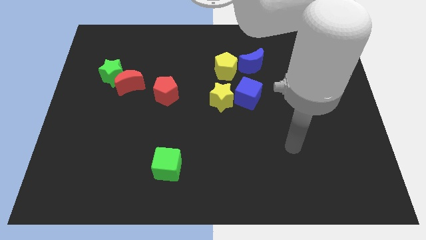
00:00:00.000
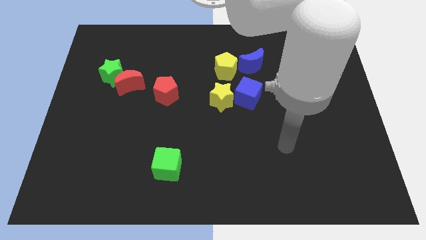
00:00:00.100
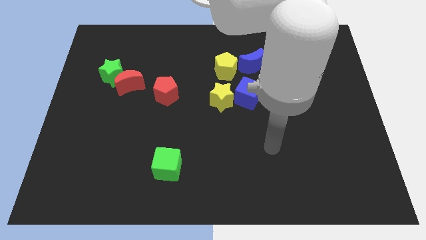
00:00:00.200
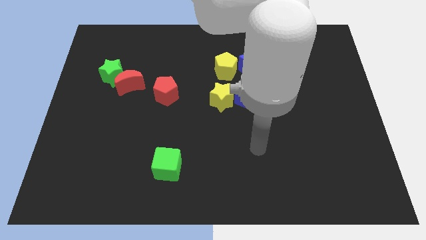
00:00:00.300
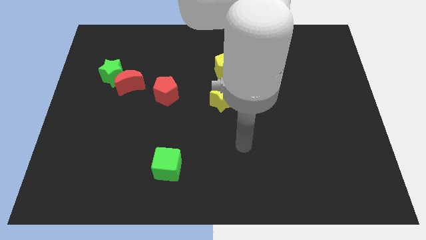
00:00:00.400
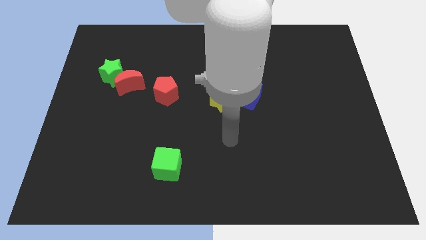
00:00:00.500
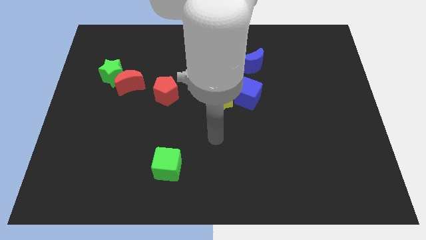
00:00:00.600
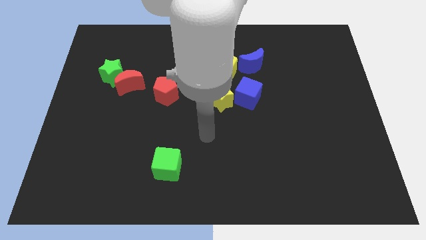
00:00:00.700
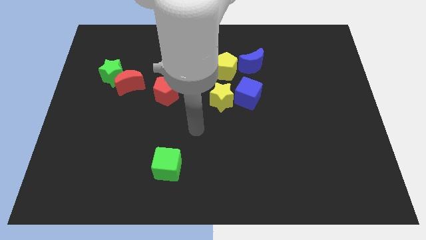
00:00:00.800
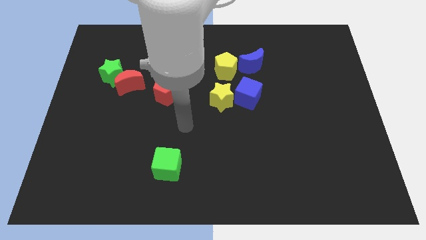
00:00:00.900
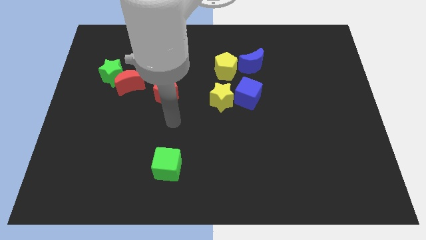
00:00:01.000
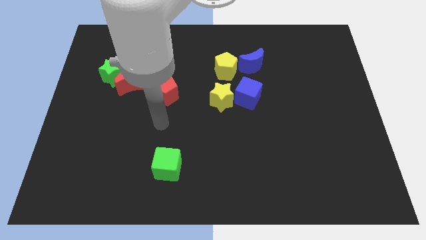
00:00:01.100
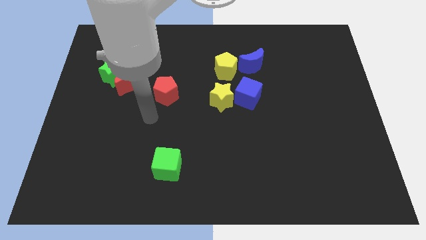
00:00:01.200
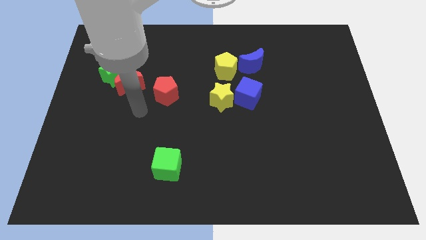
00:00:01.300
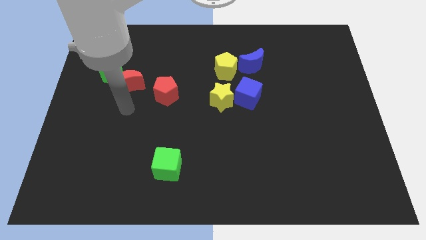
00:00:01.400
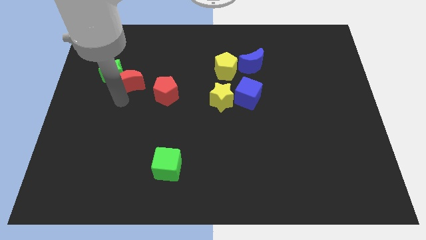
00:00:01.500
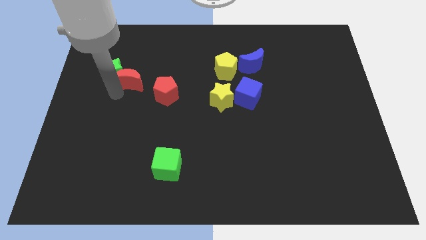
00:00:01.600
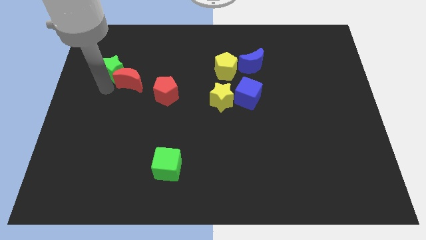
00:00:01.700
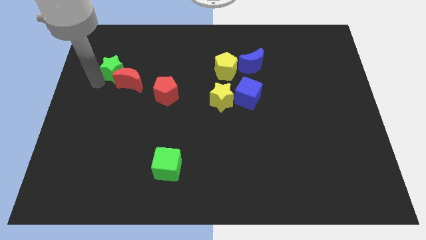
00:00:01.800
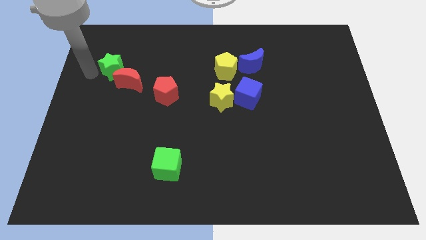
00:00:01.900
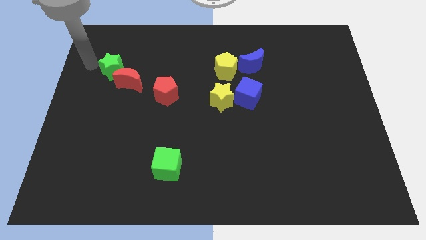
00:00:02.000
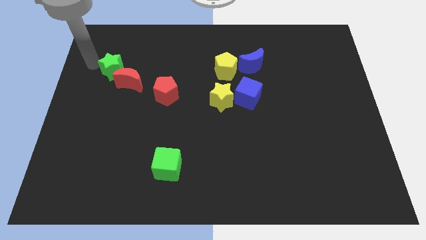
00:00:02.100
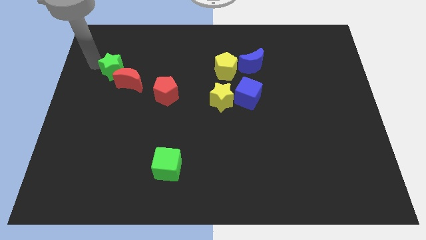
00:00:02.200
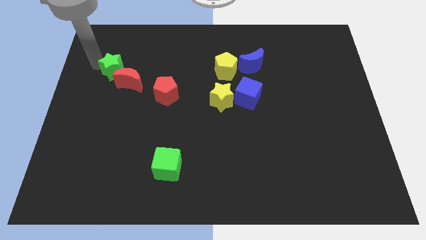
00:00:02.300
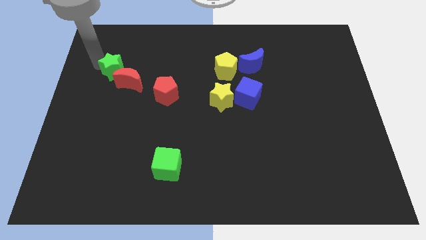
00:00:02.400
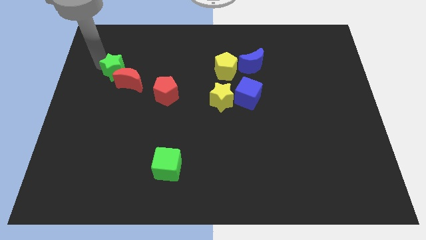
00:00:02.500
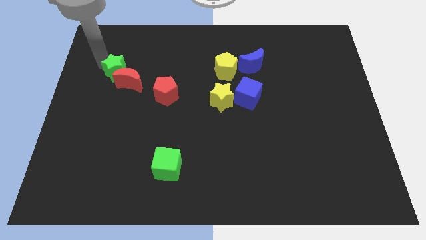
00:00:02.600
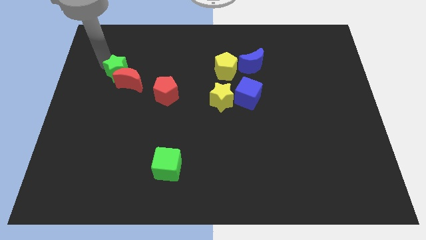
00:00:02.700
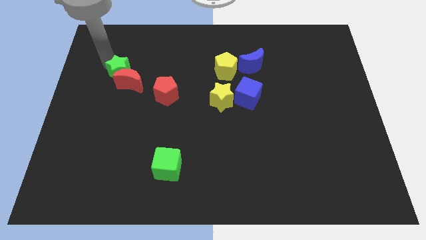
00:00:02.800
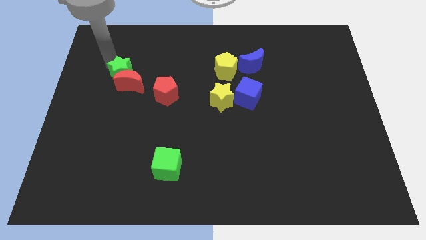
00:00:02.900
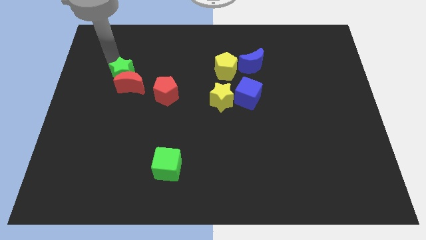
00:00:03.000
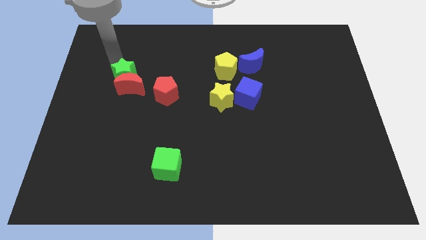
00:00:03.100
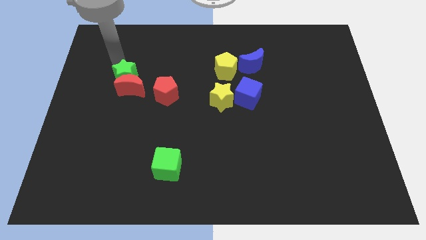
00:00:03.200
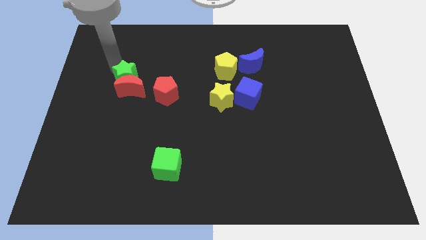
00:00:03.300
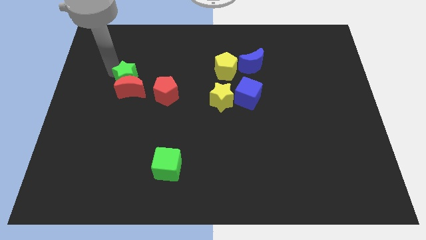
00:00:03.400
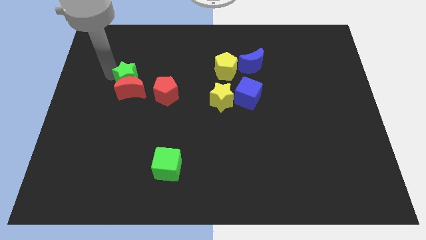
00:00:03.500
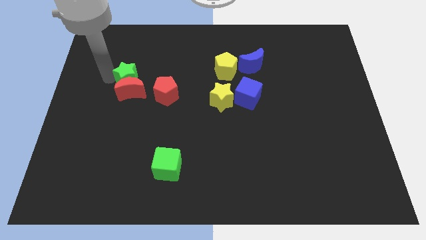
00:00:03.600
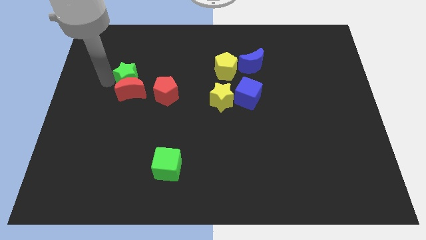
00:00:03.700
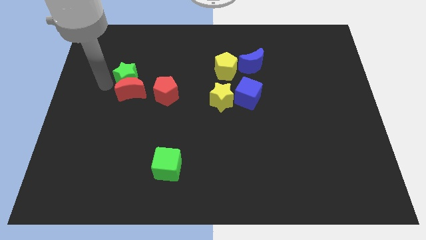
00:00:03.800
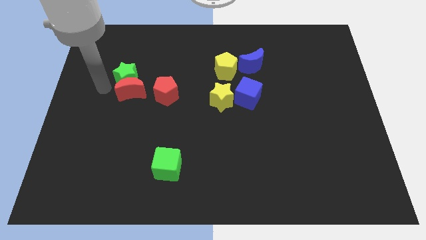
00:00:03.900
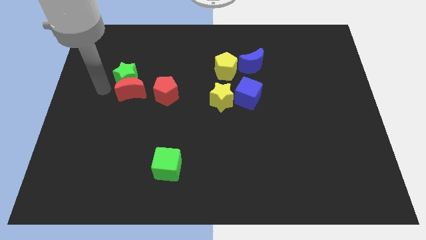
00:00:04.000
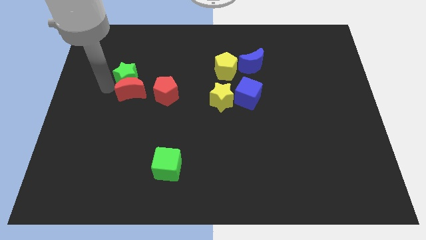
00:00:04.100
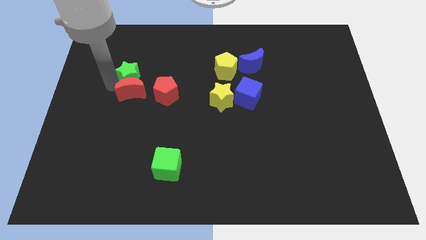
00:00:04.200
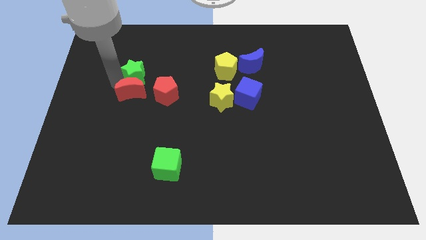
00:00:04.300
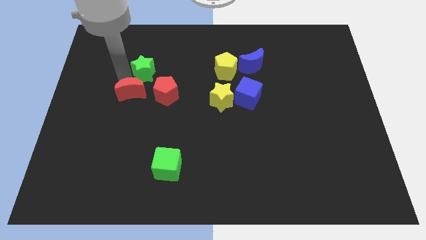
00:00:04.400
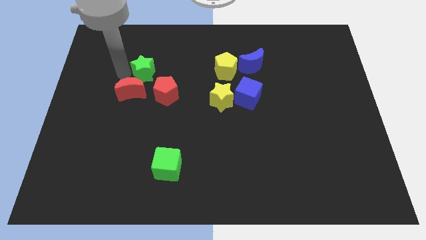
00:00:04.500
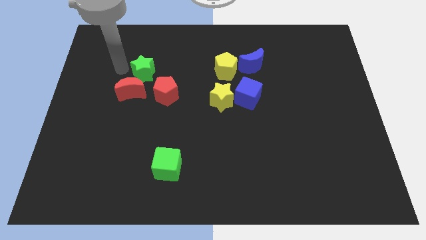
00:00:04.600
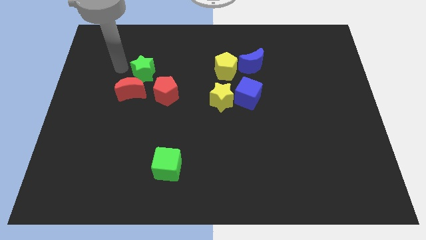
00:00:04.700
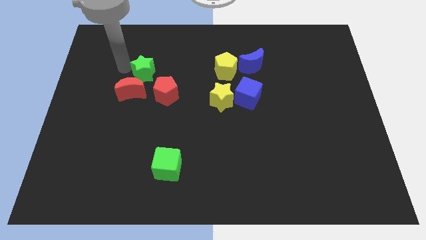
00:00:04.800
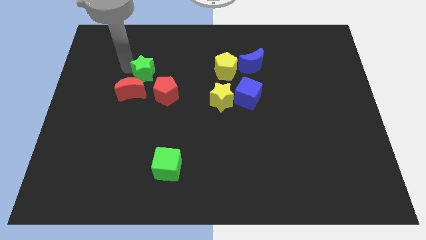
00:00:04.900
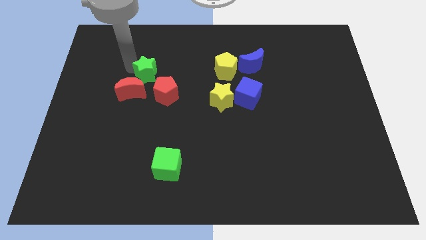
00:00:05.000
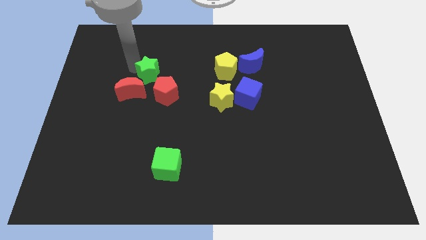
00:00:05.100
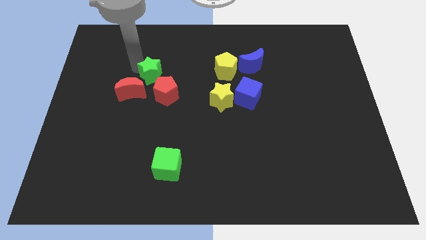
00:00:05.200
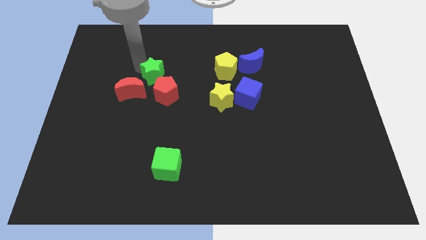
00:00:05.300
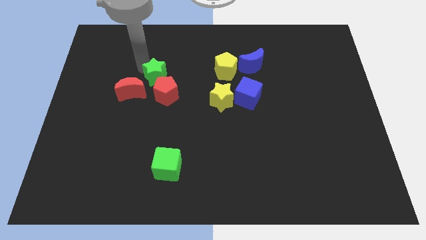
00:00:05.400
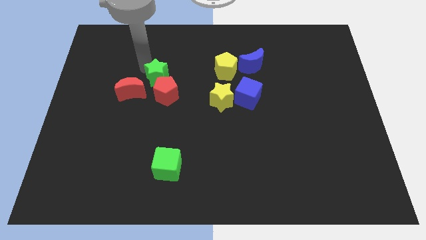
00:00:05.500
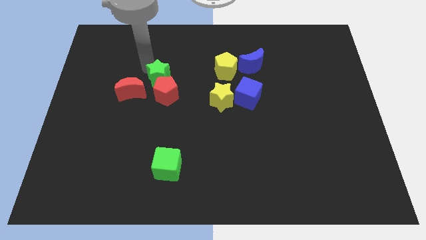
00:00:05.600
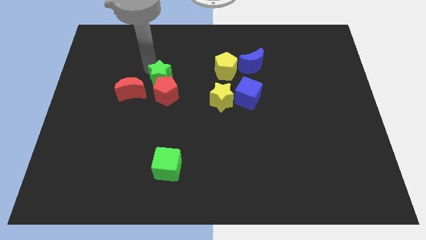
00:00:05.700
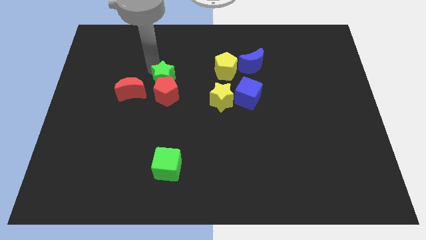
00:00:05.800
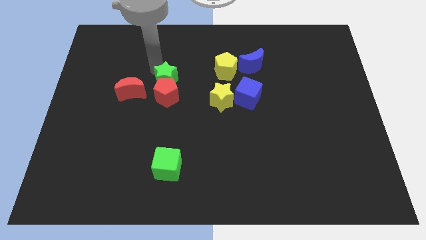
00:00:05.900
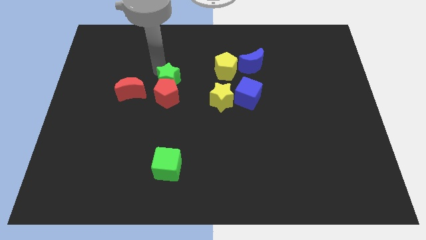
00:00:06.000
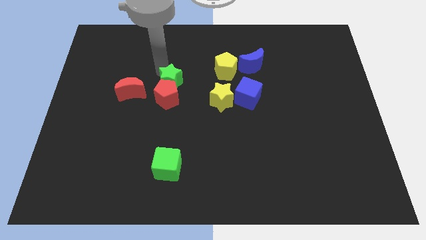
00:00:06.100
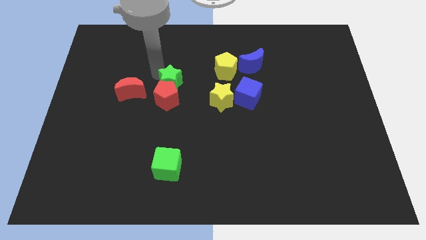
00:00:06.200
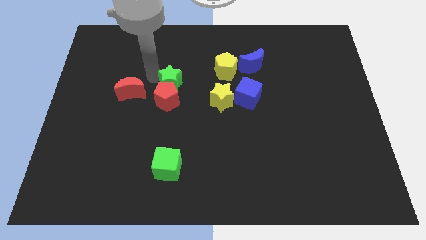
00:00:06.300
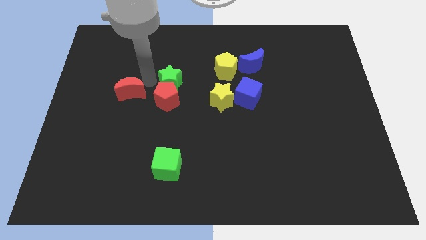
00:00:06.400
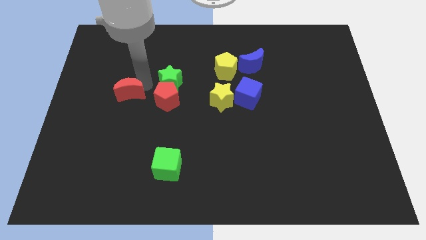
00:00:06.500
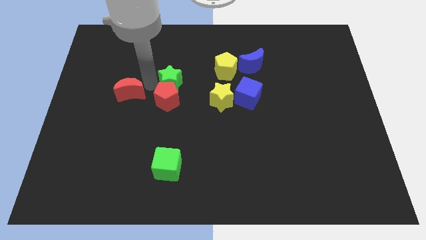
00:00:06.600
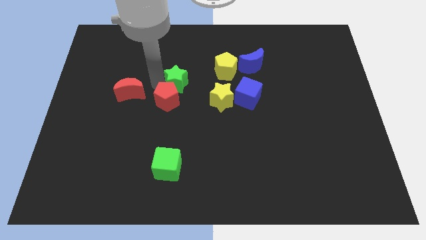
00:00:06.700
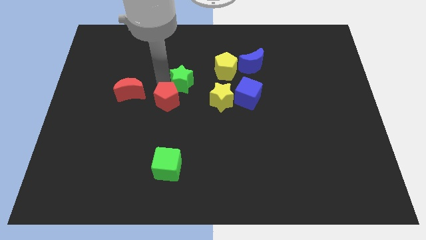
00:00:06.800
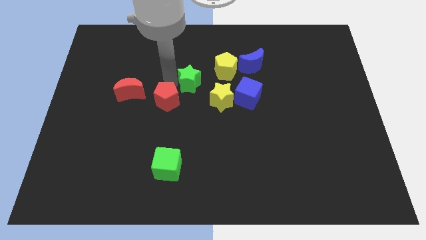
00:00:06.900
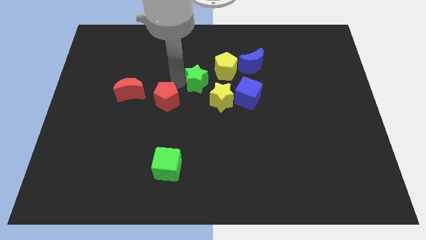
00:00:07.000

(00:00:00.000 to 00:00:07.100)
move the green star right

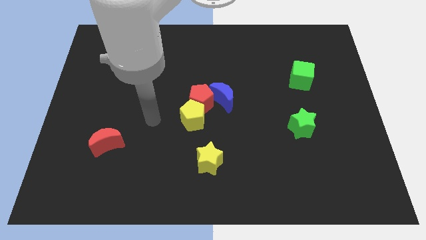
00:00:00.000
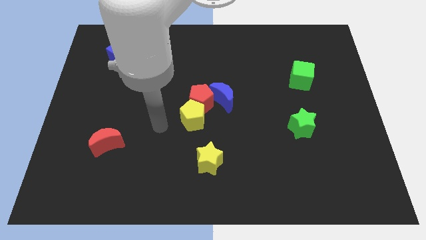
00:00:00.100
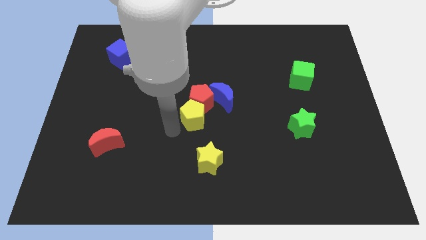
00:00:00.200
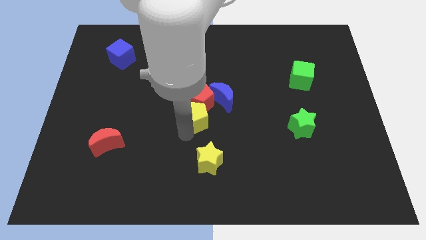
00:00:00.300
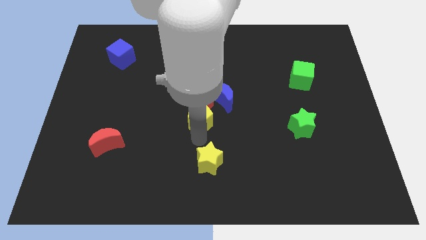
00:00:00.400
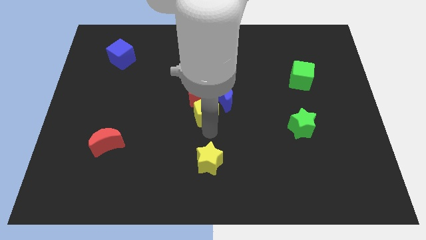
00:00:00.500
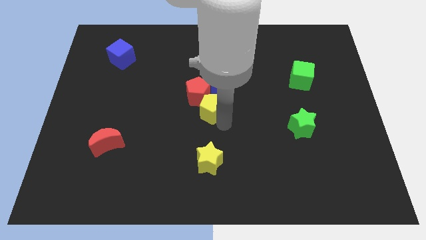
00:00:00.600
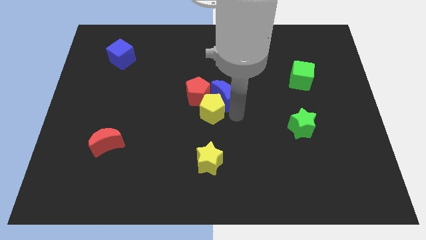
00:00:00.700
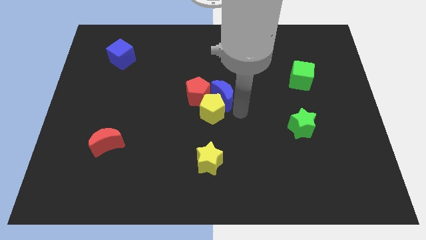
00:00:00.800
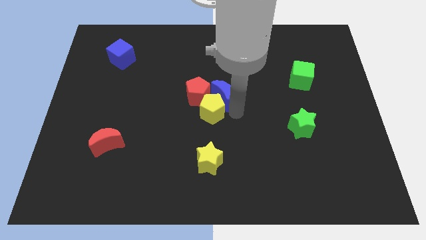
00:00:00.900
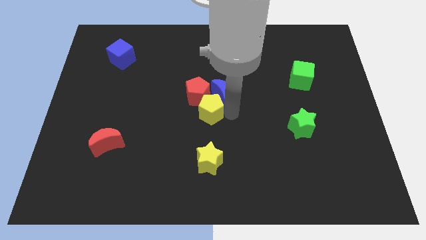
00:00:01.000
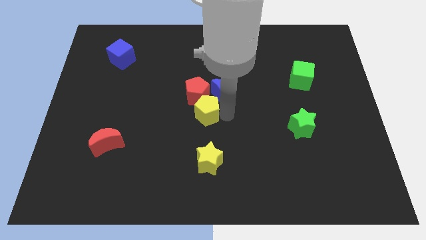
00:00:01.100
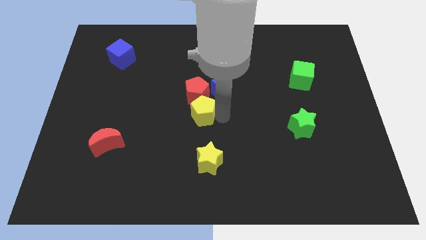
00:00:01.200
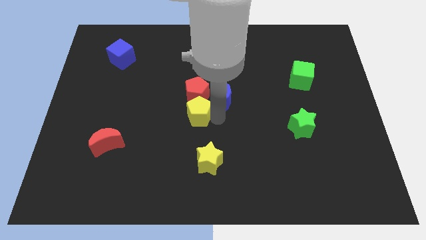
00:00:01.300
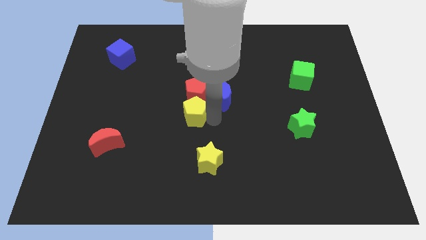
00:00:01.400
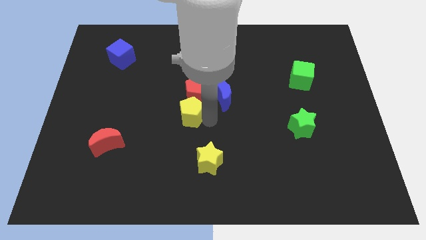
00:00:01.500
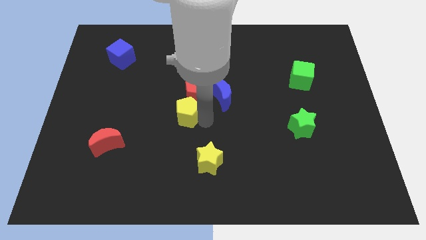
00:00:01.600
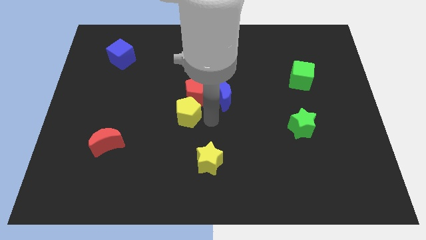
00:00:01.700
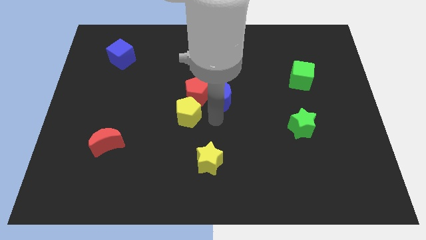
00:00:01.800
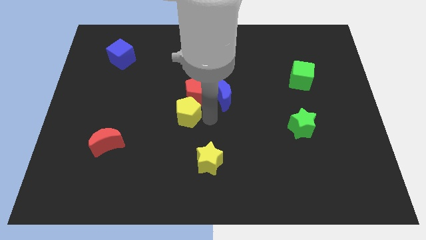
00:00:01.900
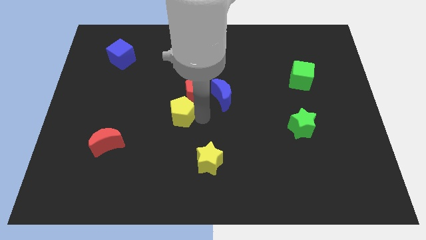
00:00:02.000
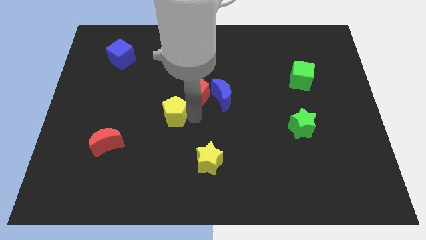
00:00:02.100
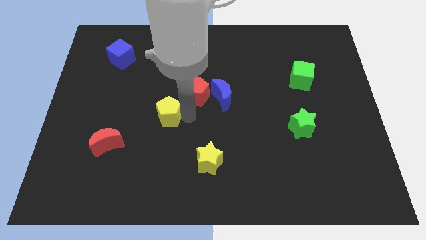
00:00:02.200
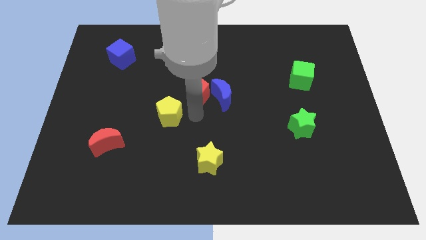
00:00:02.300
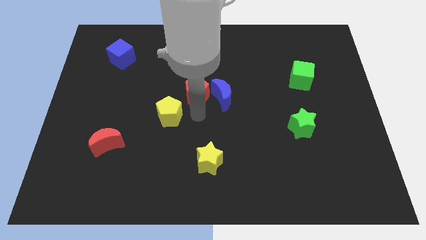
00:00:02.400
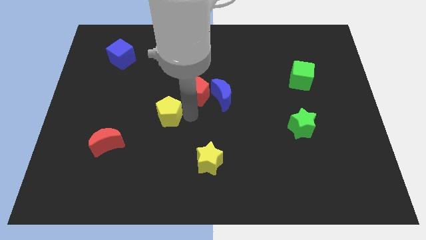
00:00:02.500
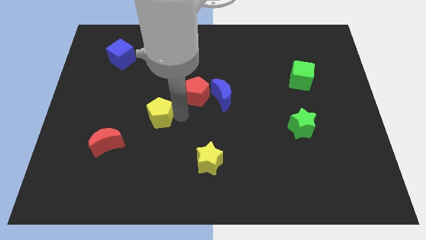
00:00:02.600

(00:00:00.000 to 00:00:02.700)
slightly push the yellow pentagon left
